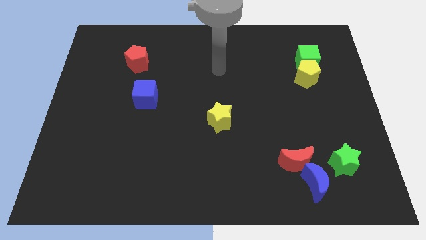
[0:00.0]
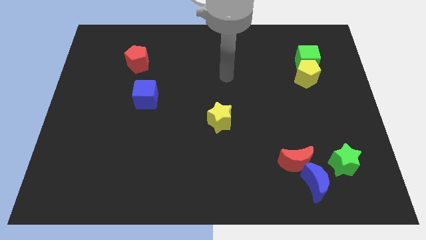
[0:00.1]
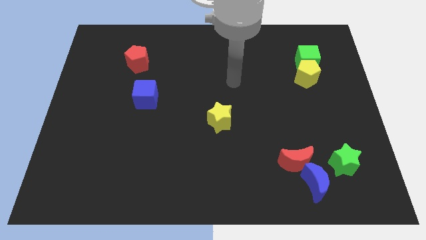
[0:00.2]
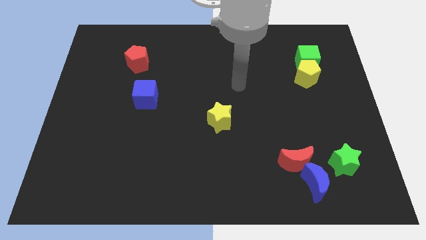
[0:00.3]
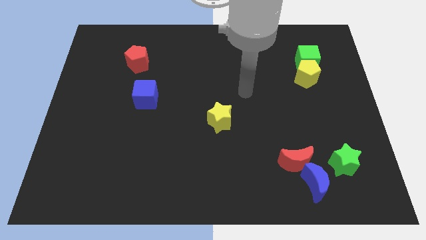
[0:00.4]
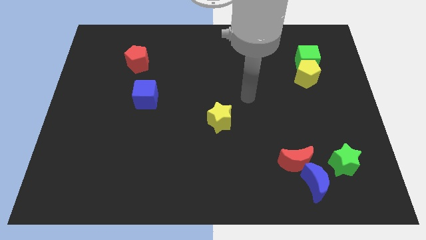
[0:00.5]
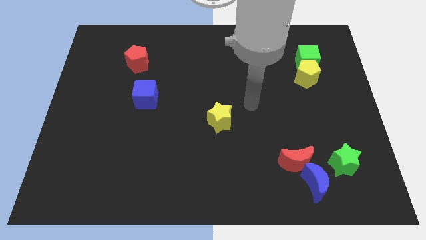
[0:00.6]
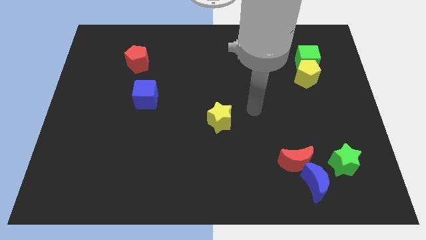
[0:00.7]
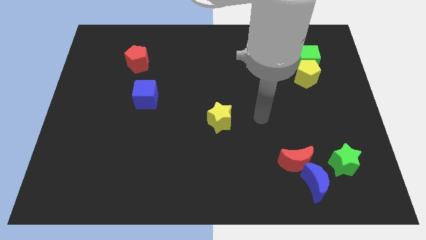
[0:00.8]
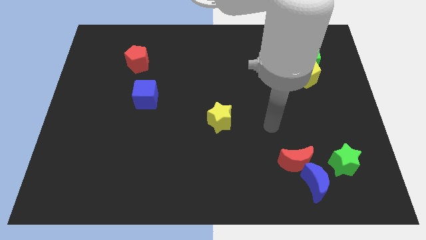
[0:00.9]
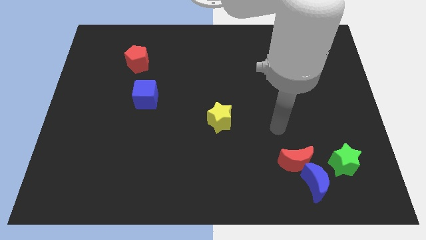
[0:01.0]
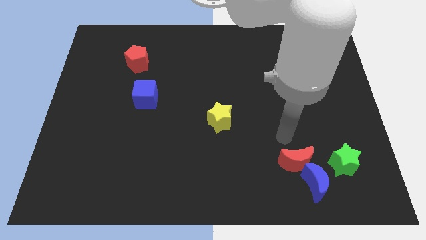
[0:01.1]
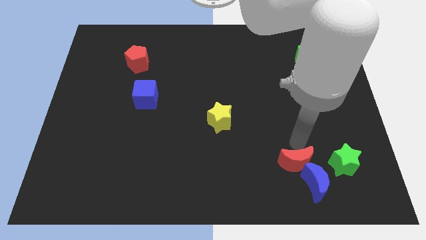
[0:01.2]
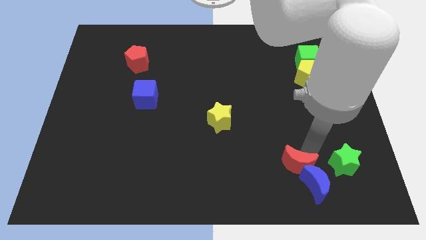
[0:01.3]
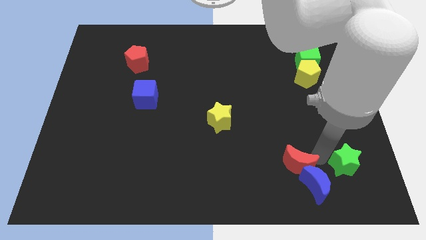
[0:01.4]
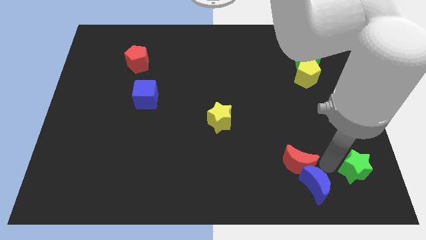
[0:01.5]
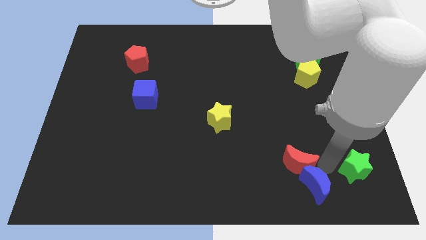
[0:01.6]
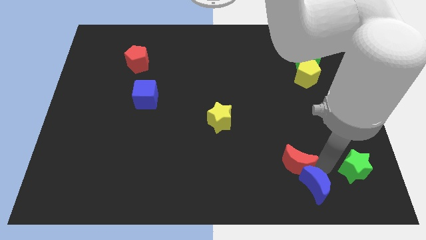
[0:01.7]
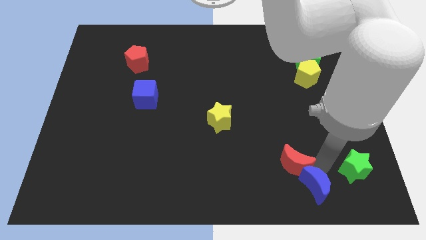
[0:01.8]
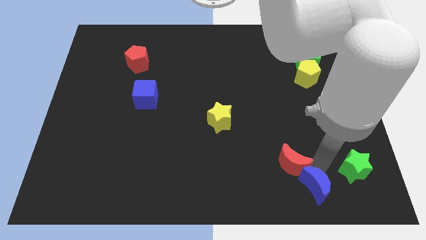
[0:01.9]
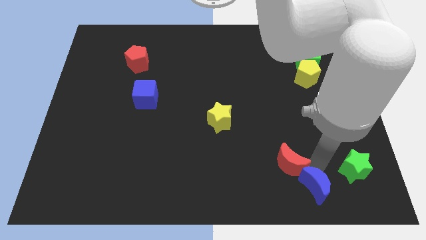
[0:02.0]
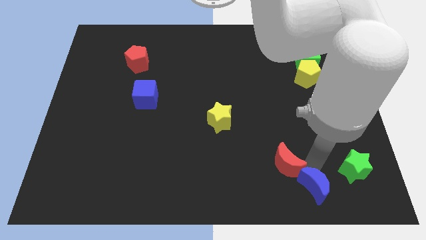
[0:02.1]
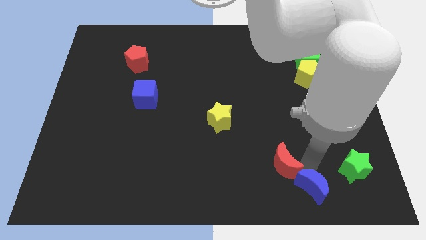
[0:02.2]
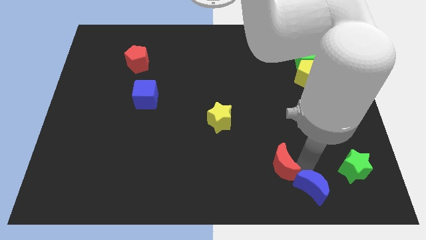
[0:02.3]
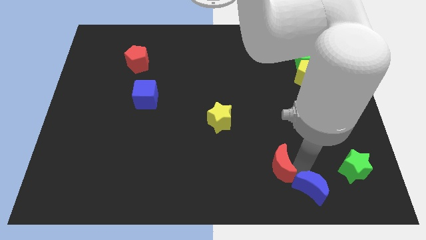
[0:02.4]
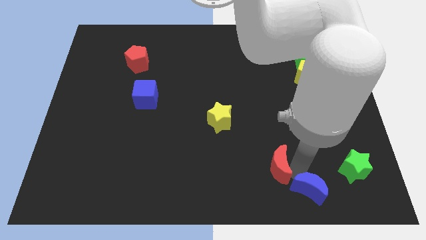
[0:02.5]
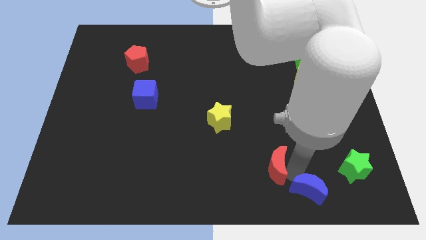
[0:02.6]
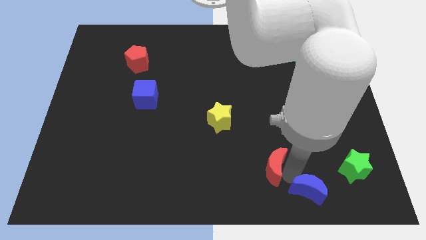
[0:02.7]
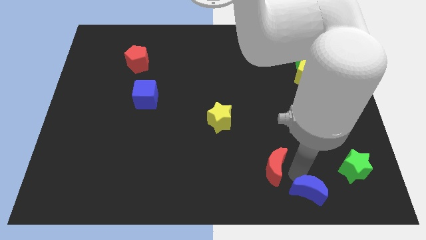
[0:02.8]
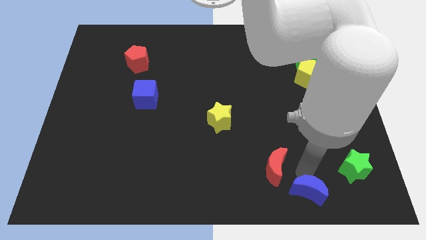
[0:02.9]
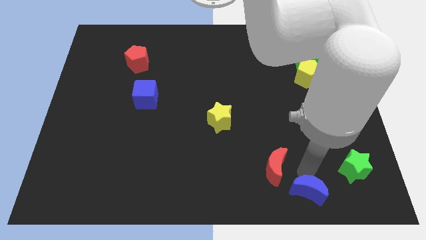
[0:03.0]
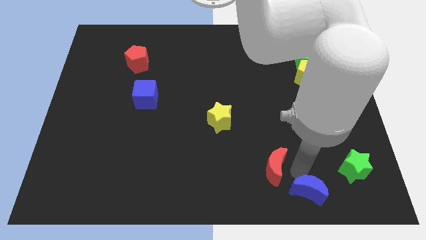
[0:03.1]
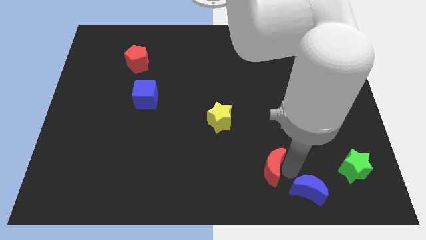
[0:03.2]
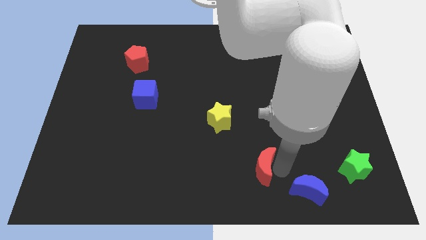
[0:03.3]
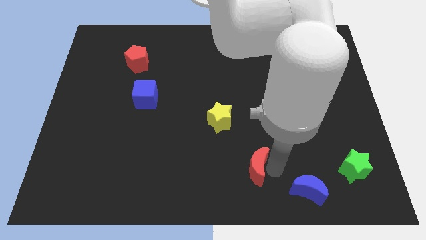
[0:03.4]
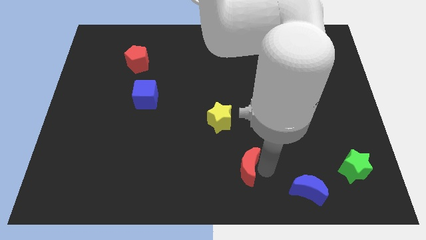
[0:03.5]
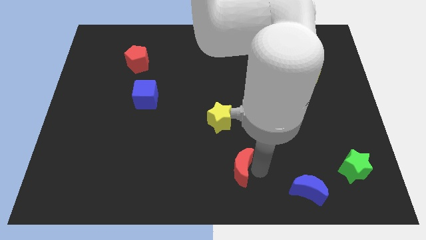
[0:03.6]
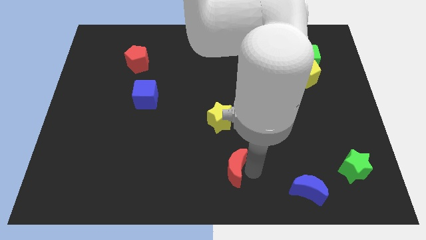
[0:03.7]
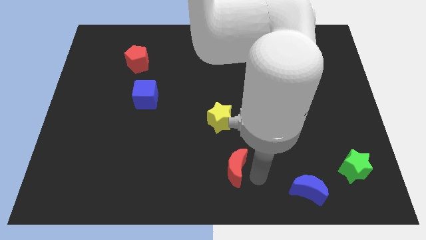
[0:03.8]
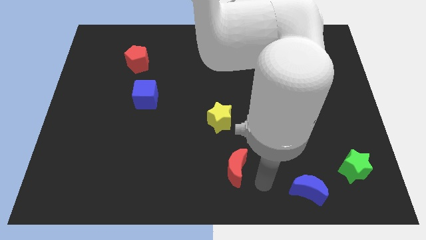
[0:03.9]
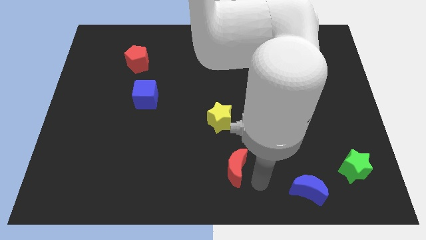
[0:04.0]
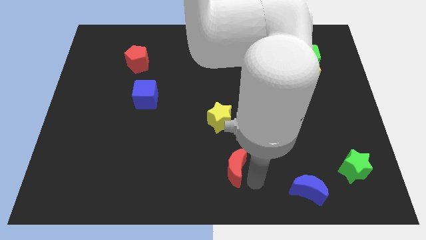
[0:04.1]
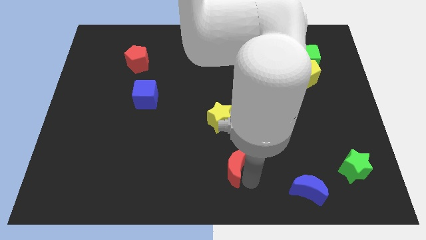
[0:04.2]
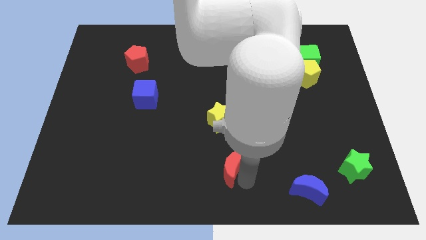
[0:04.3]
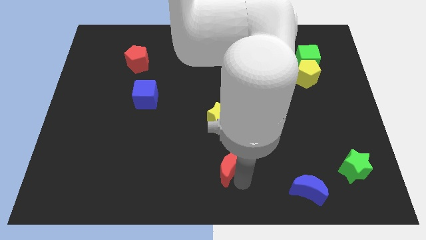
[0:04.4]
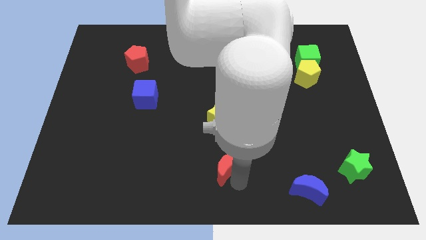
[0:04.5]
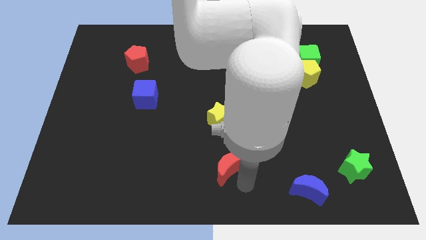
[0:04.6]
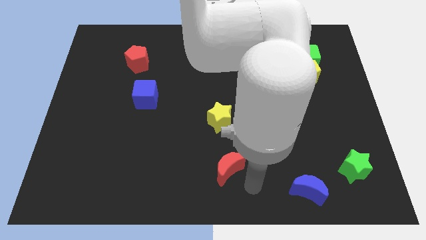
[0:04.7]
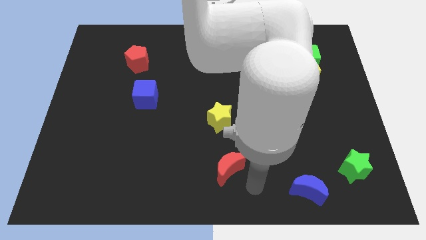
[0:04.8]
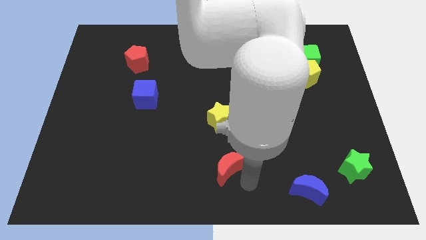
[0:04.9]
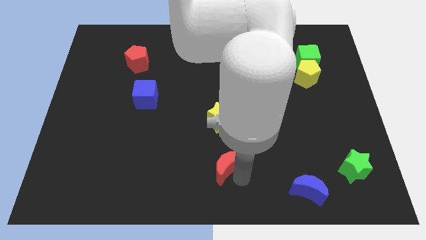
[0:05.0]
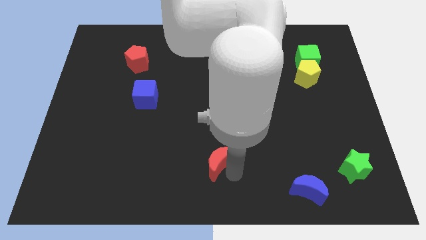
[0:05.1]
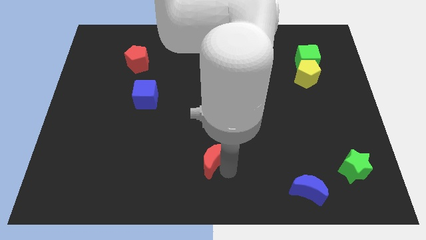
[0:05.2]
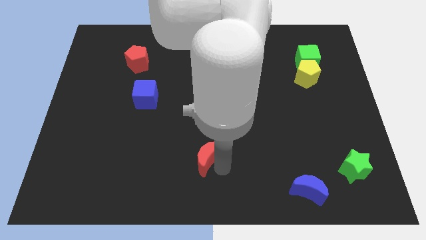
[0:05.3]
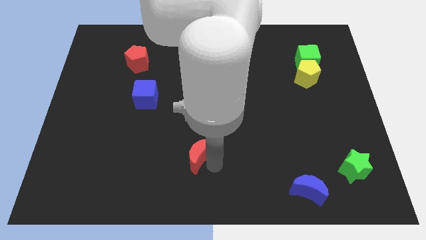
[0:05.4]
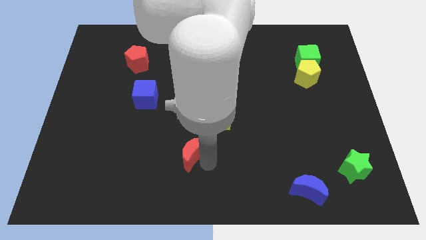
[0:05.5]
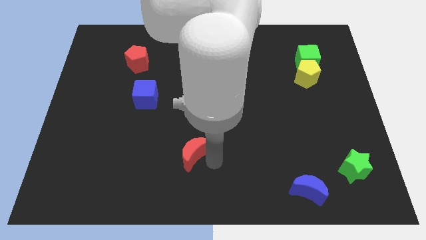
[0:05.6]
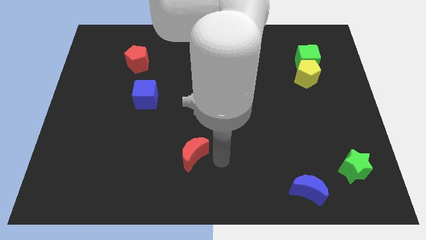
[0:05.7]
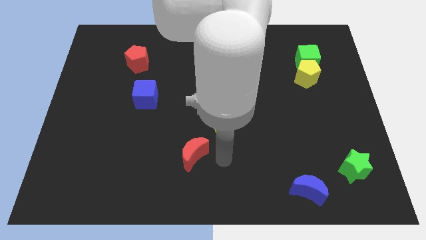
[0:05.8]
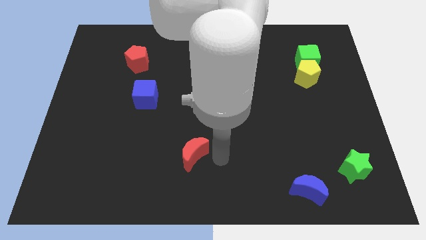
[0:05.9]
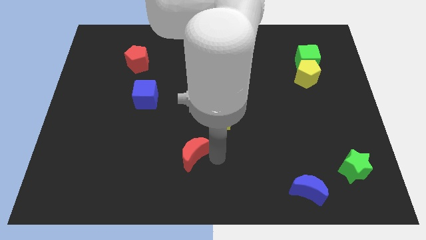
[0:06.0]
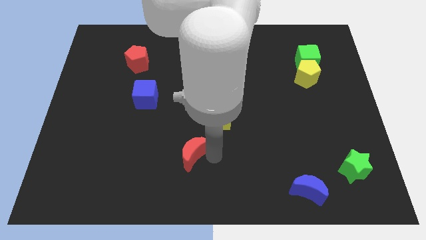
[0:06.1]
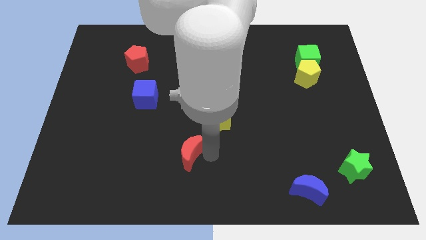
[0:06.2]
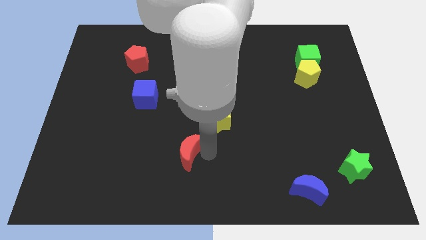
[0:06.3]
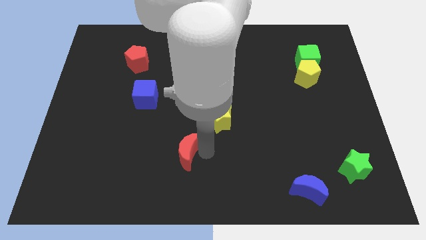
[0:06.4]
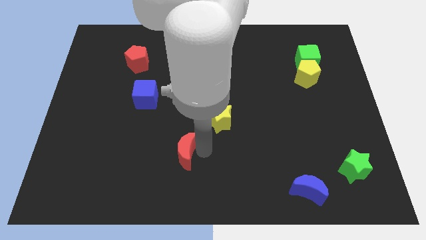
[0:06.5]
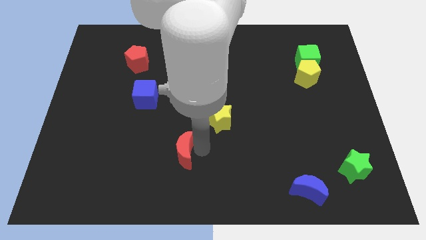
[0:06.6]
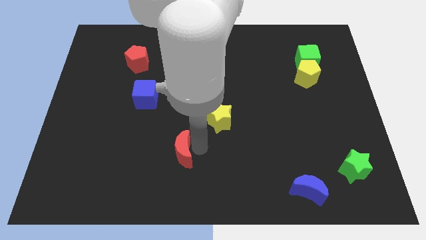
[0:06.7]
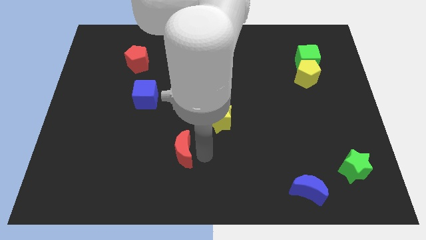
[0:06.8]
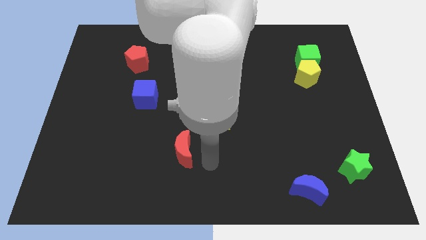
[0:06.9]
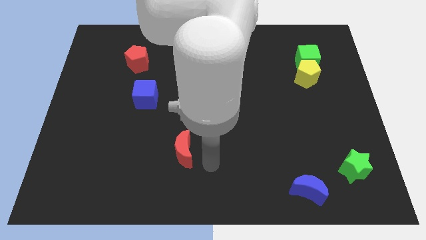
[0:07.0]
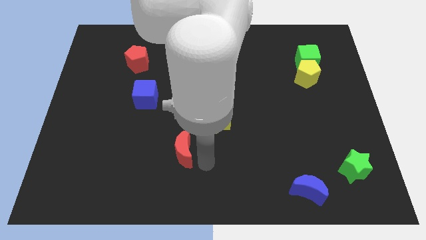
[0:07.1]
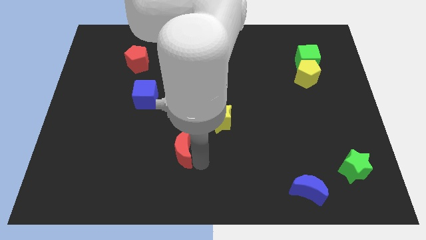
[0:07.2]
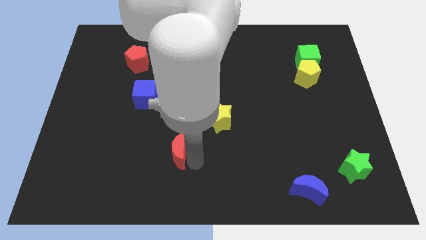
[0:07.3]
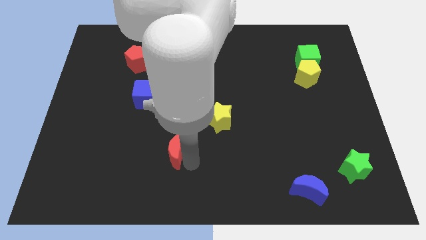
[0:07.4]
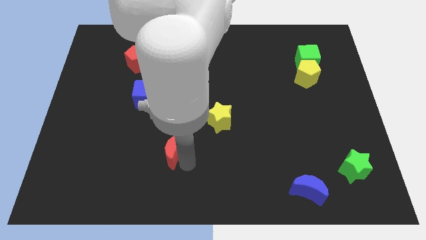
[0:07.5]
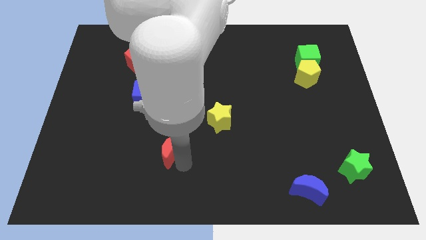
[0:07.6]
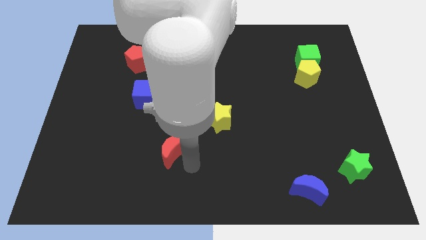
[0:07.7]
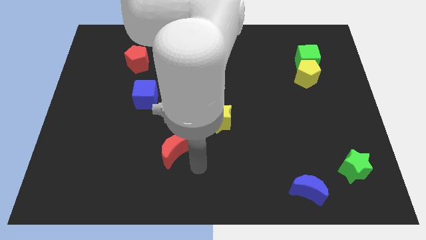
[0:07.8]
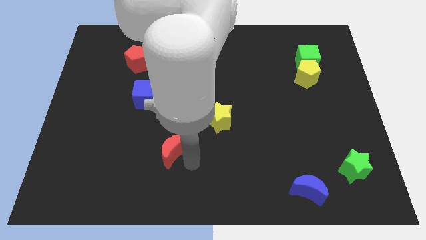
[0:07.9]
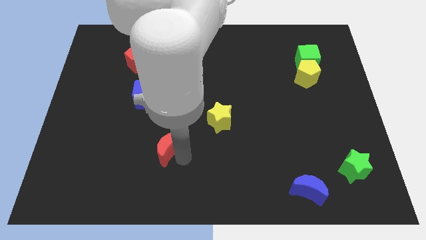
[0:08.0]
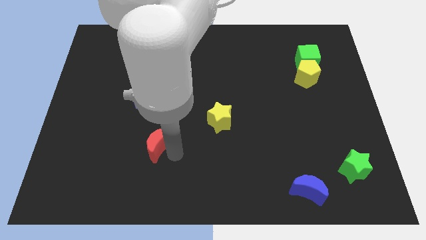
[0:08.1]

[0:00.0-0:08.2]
put the red moon below the blue cube
